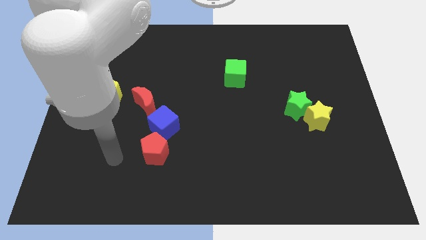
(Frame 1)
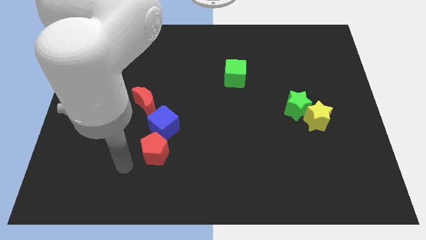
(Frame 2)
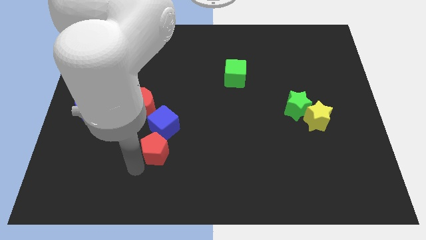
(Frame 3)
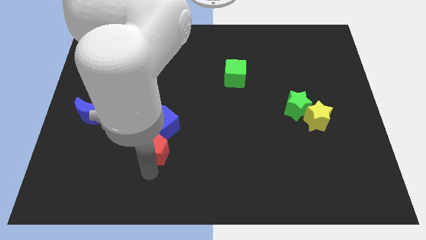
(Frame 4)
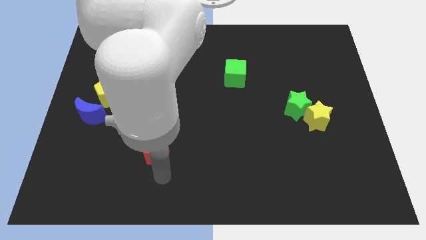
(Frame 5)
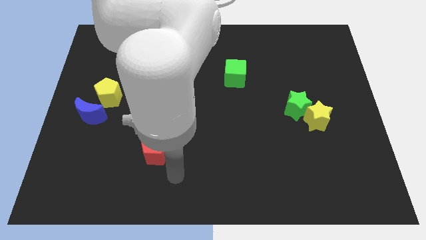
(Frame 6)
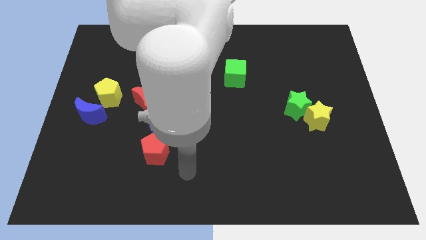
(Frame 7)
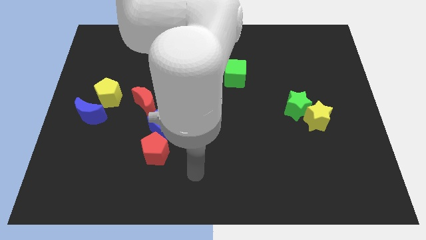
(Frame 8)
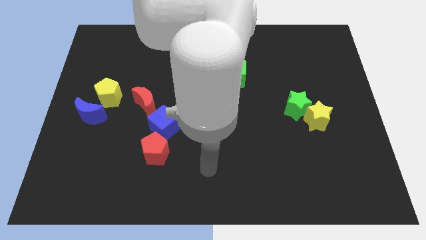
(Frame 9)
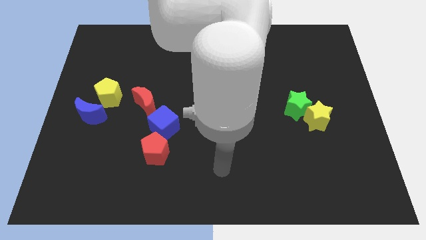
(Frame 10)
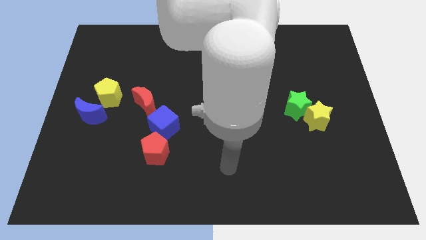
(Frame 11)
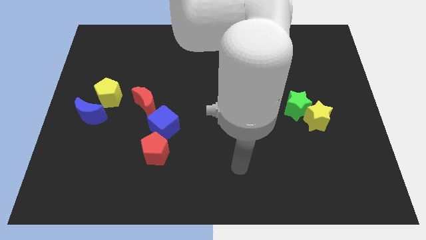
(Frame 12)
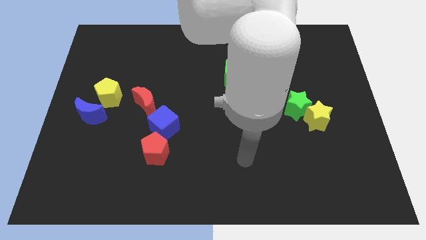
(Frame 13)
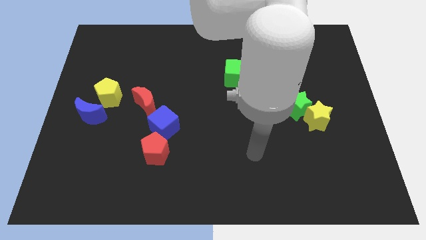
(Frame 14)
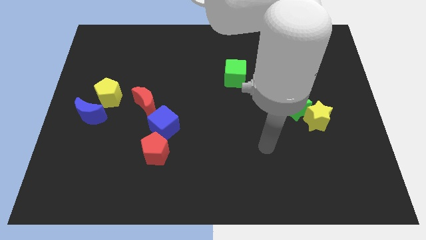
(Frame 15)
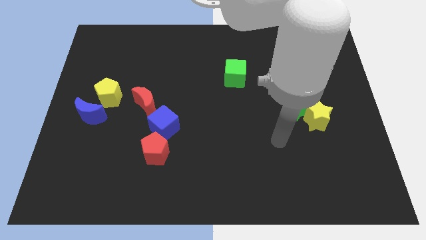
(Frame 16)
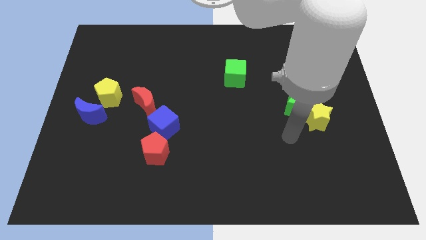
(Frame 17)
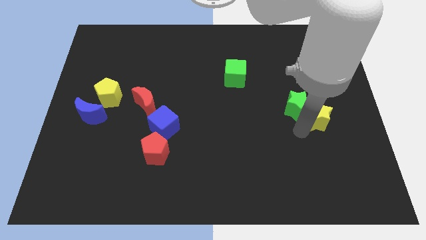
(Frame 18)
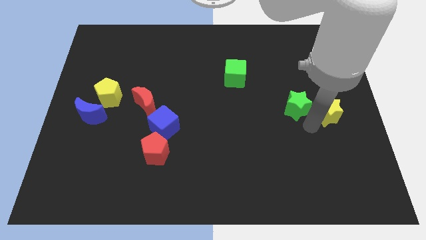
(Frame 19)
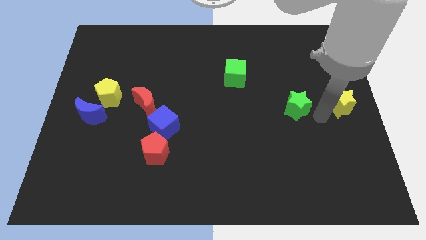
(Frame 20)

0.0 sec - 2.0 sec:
pull the green star apart from the yellow star

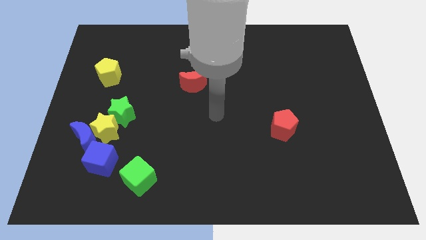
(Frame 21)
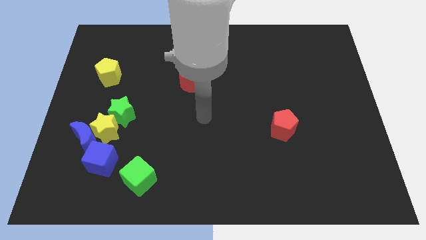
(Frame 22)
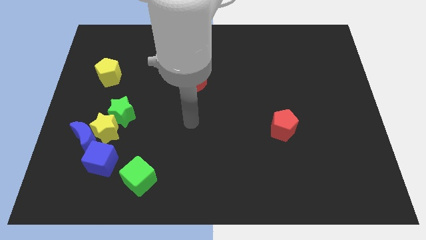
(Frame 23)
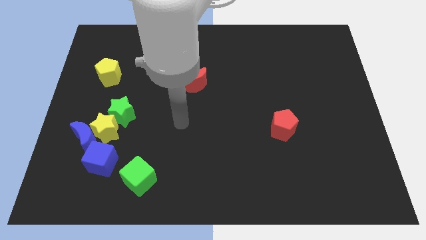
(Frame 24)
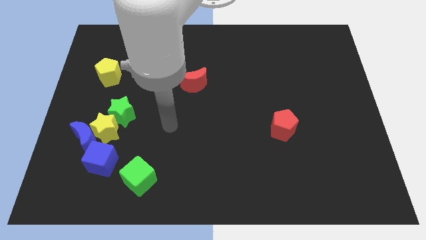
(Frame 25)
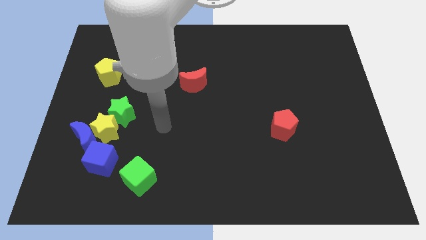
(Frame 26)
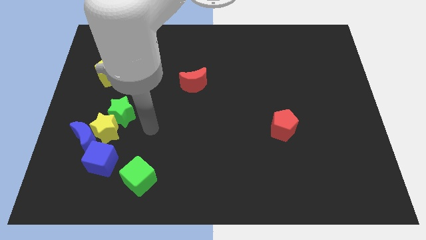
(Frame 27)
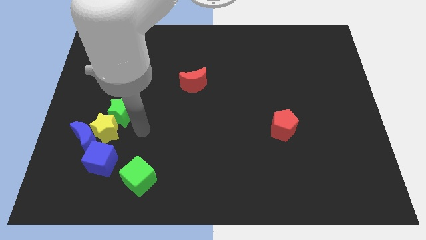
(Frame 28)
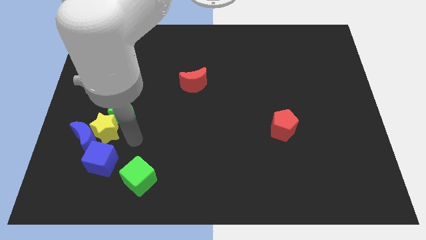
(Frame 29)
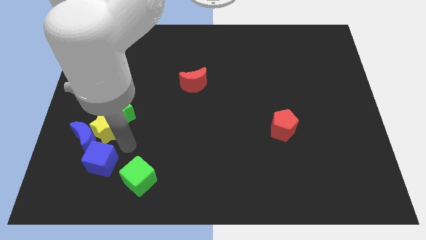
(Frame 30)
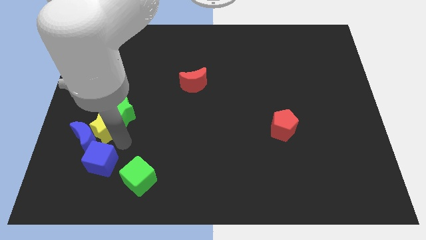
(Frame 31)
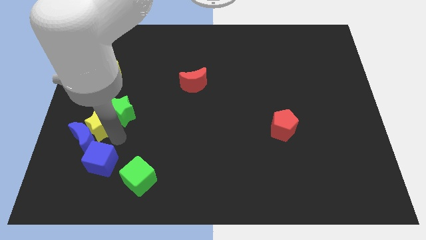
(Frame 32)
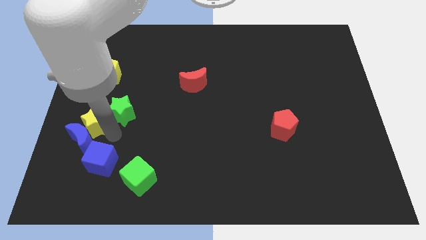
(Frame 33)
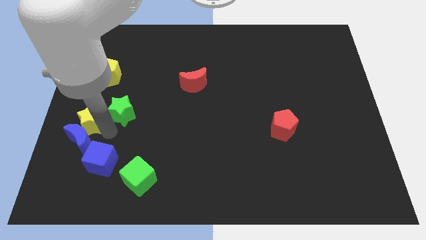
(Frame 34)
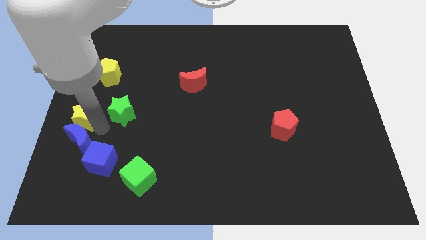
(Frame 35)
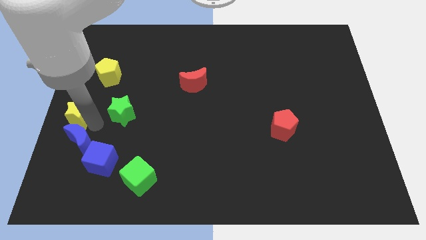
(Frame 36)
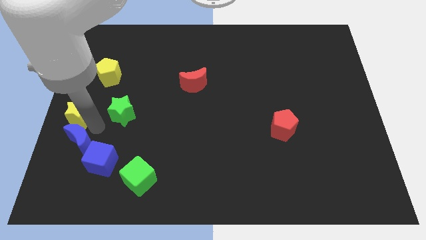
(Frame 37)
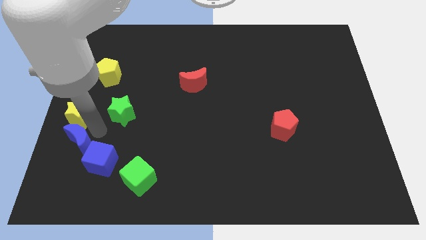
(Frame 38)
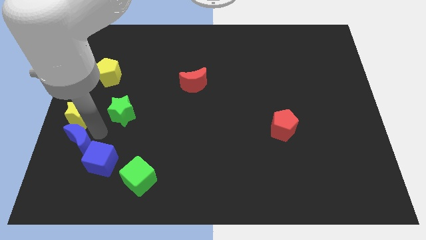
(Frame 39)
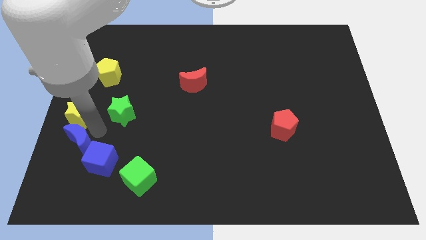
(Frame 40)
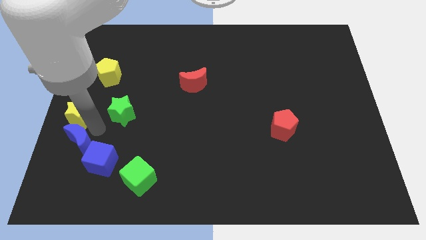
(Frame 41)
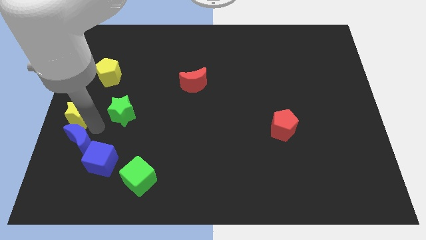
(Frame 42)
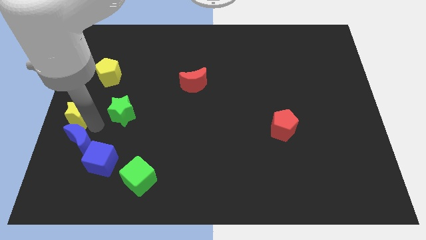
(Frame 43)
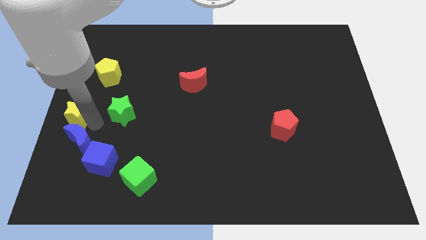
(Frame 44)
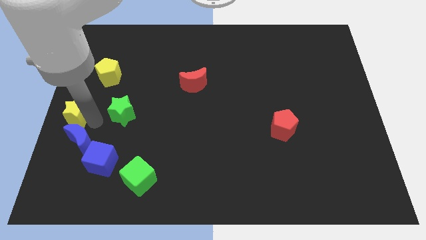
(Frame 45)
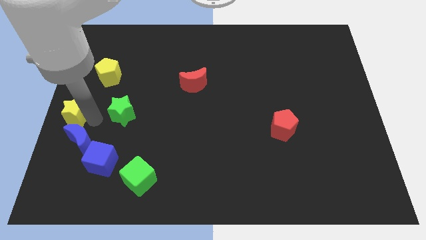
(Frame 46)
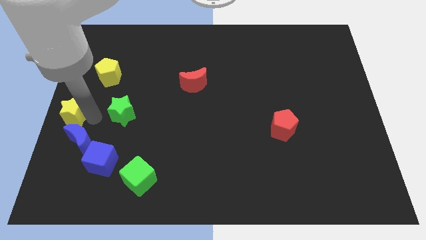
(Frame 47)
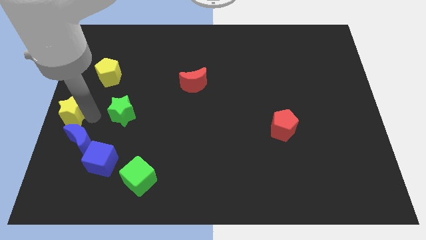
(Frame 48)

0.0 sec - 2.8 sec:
move the yellow star away from the blue moon, green star, and blue cube

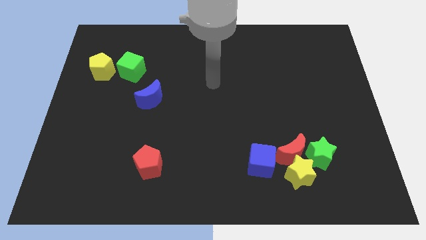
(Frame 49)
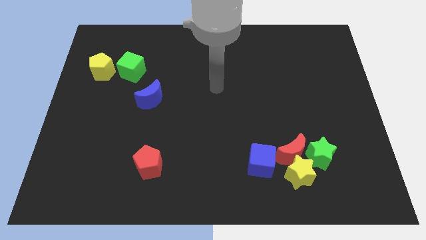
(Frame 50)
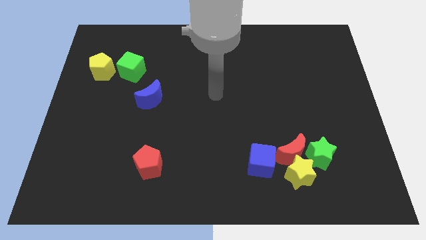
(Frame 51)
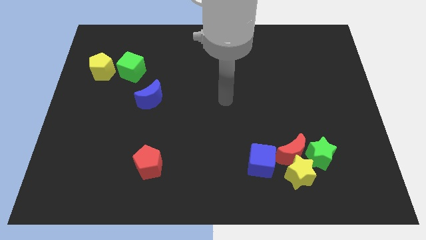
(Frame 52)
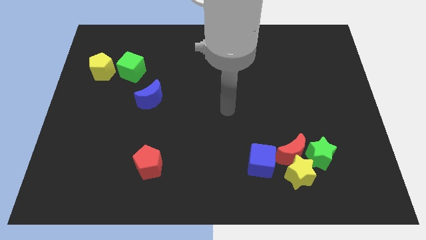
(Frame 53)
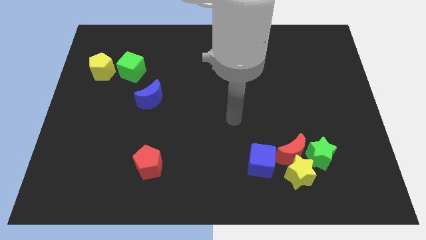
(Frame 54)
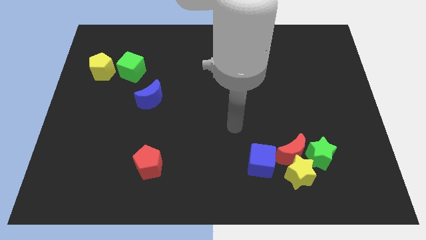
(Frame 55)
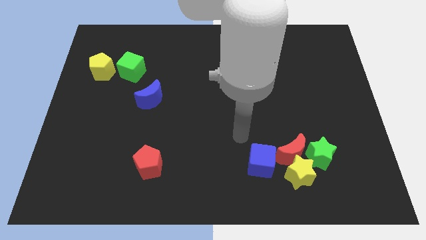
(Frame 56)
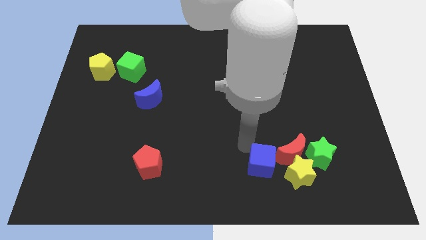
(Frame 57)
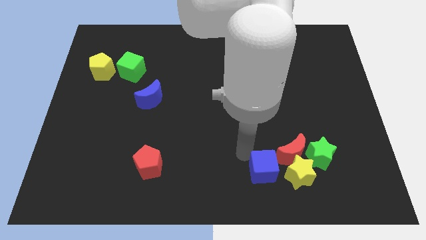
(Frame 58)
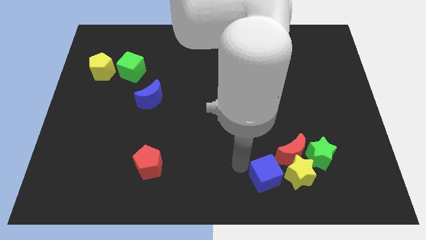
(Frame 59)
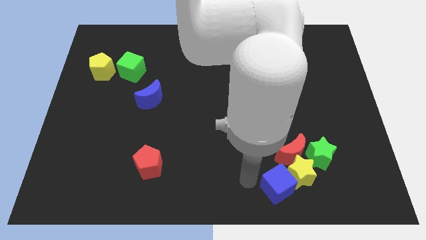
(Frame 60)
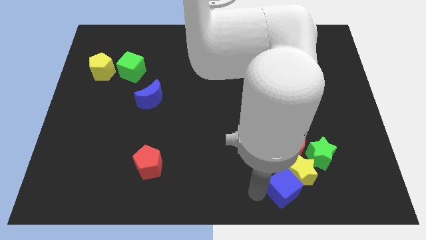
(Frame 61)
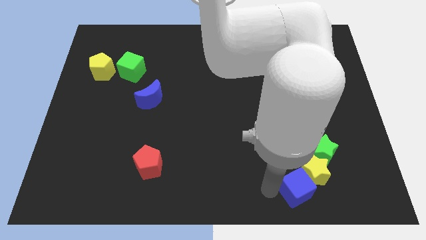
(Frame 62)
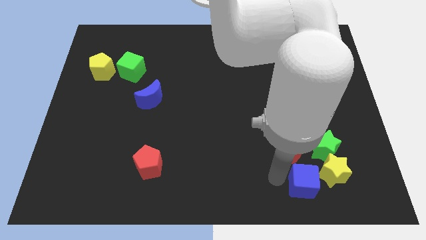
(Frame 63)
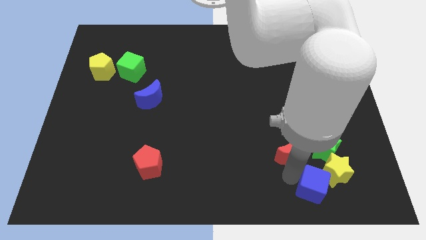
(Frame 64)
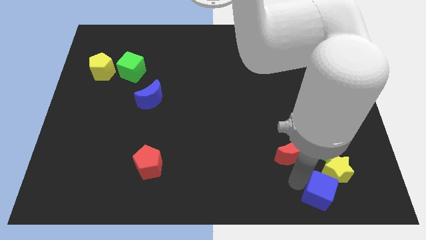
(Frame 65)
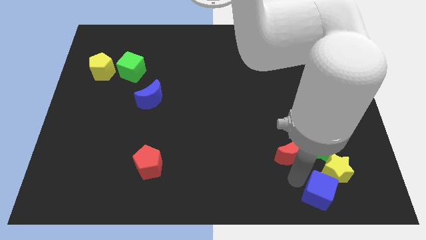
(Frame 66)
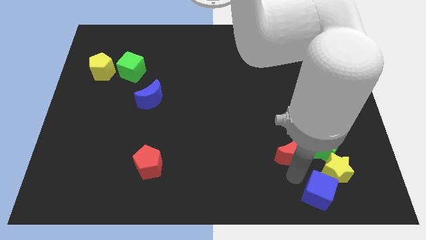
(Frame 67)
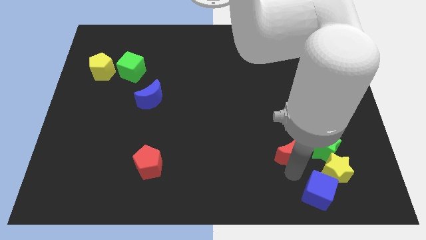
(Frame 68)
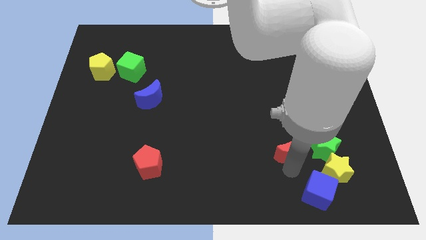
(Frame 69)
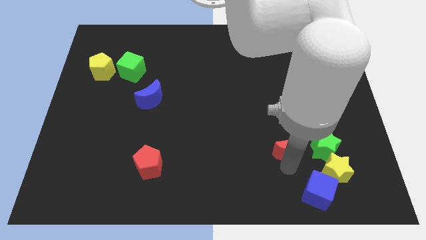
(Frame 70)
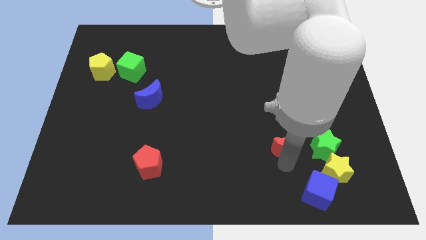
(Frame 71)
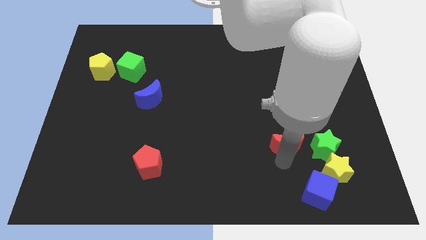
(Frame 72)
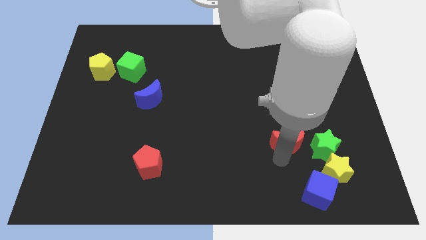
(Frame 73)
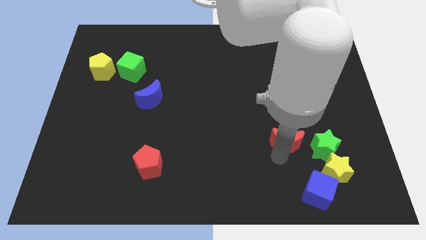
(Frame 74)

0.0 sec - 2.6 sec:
separate the red moon from the clump

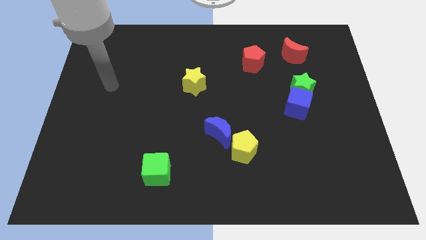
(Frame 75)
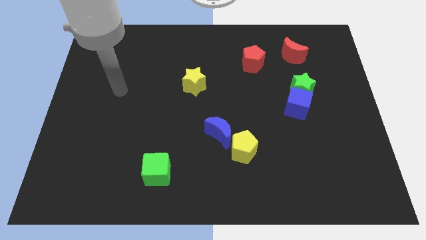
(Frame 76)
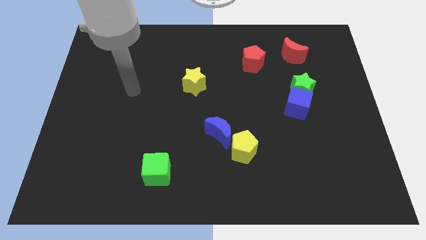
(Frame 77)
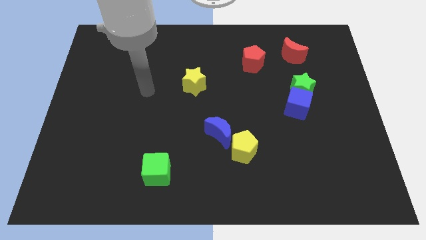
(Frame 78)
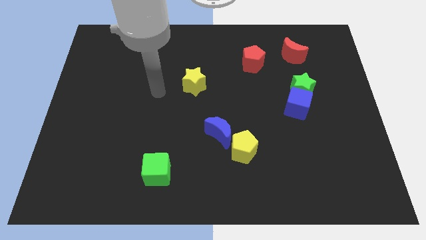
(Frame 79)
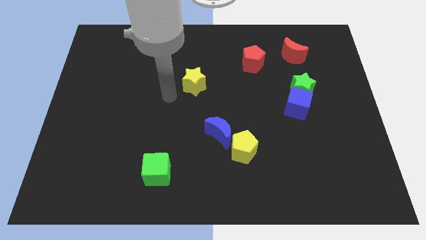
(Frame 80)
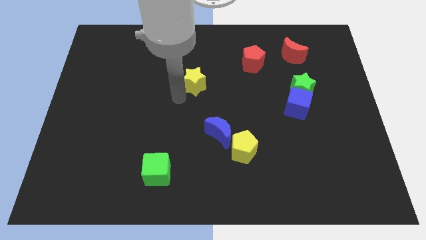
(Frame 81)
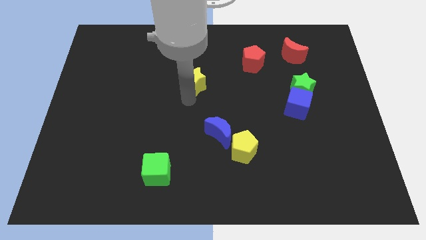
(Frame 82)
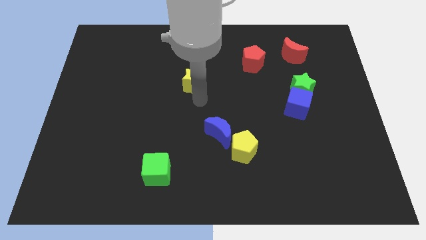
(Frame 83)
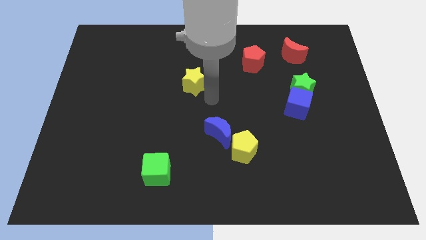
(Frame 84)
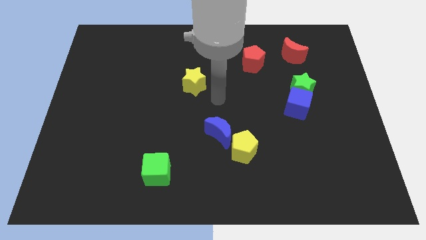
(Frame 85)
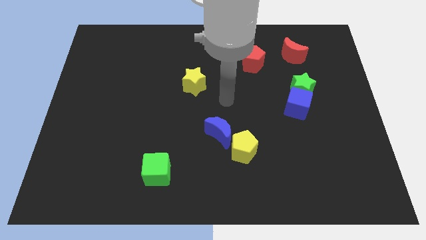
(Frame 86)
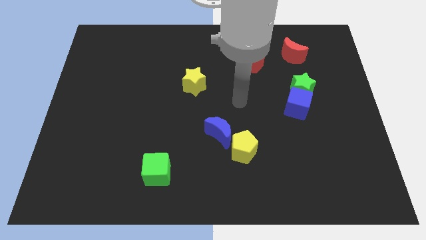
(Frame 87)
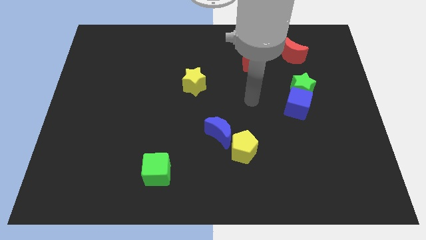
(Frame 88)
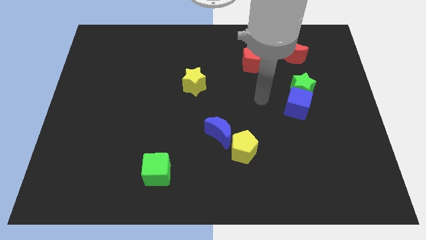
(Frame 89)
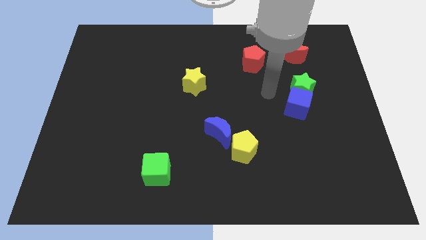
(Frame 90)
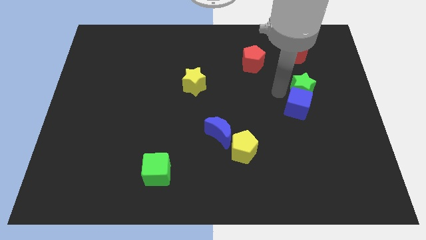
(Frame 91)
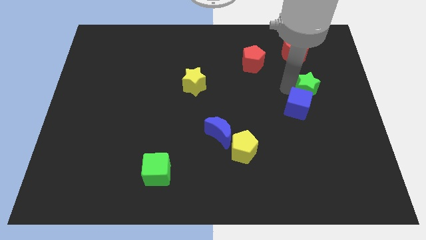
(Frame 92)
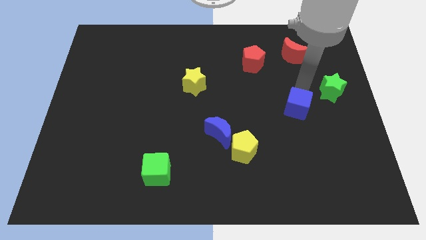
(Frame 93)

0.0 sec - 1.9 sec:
pull the blue cube apart from the green star
